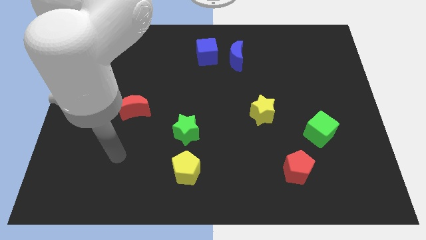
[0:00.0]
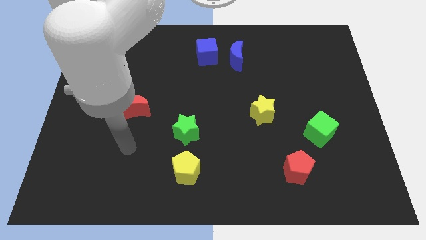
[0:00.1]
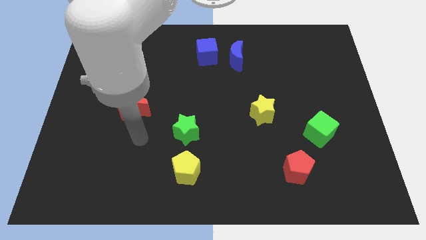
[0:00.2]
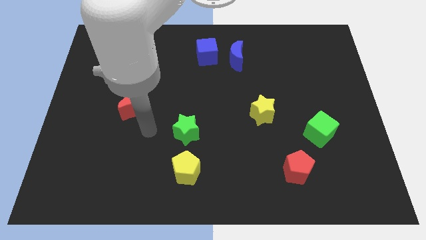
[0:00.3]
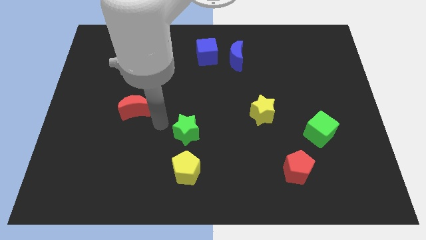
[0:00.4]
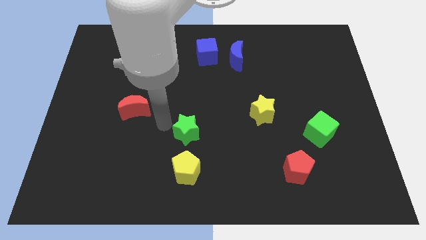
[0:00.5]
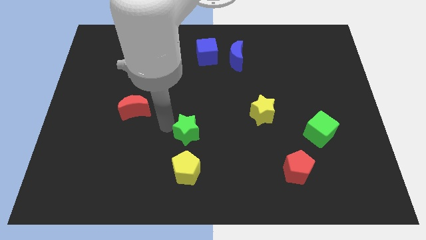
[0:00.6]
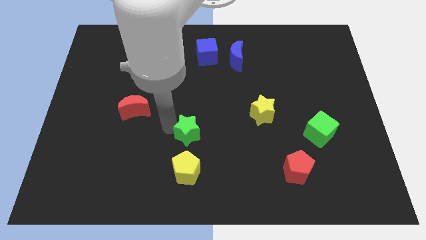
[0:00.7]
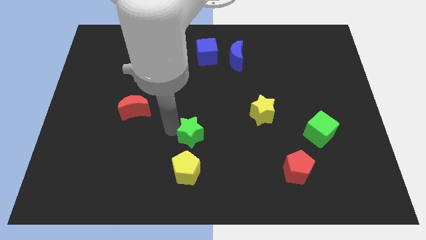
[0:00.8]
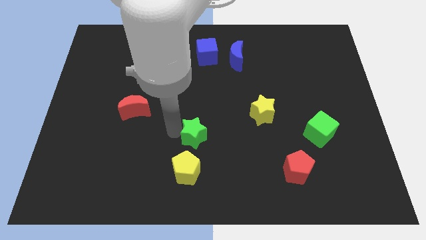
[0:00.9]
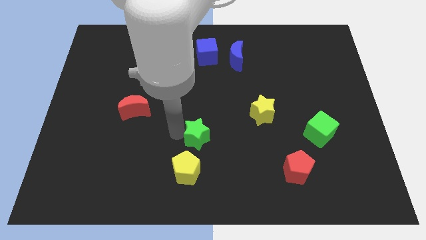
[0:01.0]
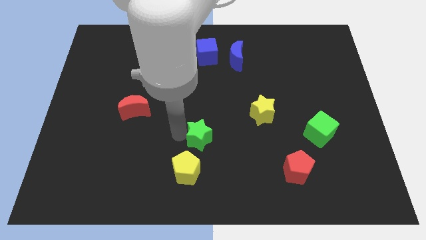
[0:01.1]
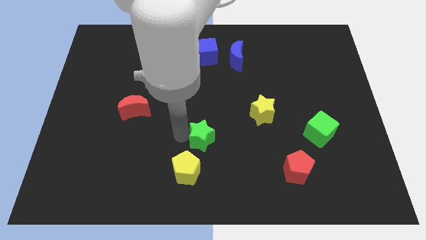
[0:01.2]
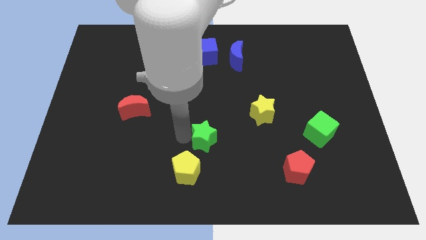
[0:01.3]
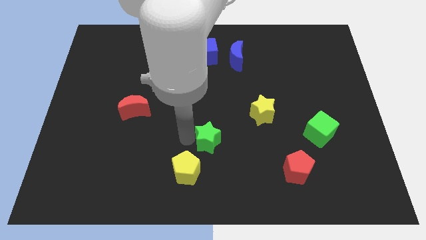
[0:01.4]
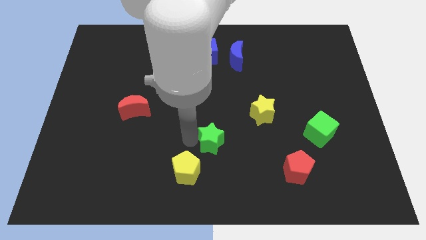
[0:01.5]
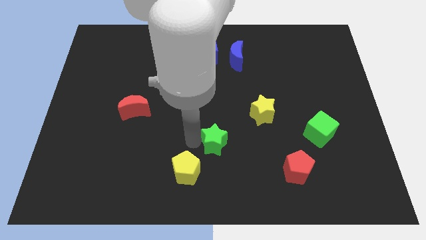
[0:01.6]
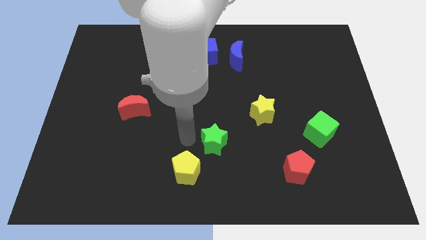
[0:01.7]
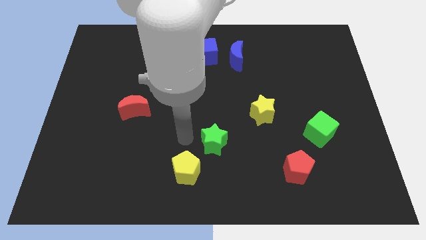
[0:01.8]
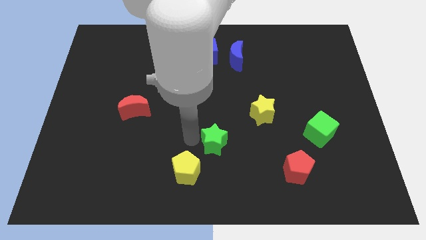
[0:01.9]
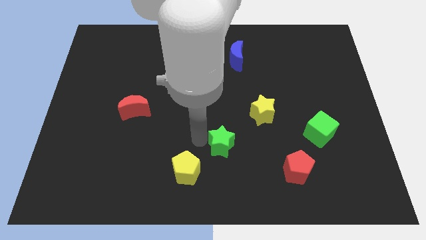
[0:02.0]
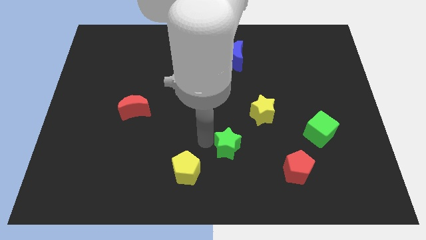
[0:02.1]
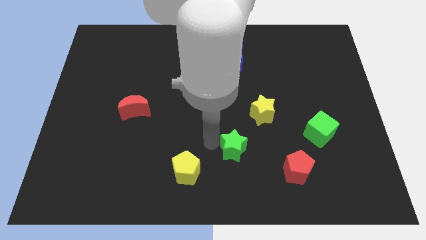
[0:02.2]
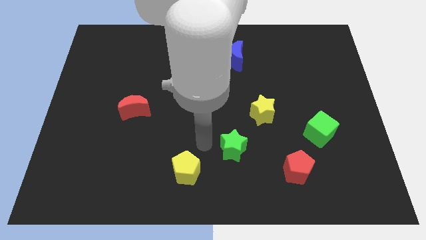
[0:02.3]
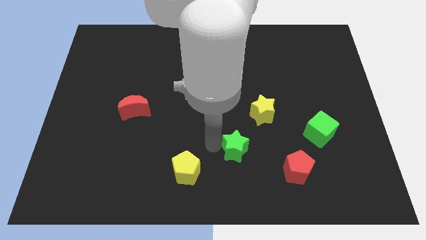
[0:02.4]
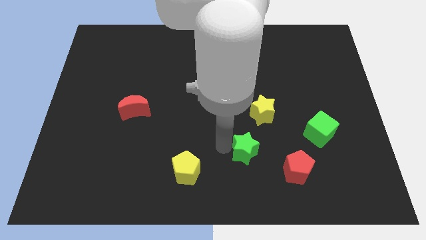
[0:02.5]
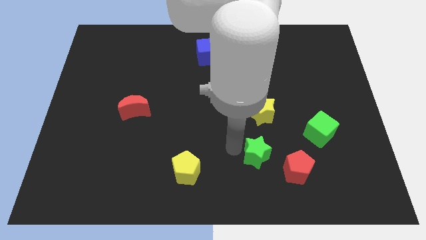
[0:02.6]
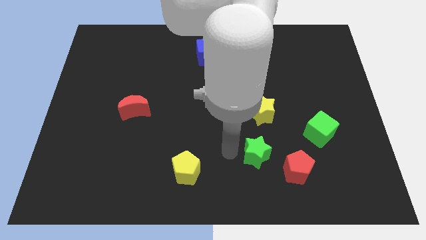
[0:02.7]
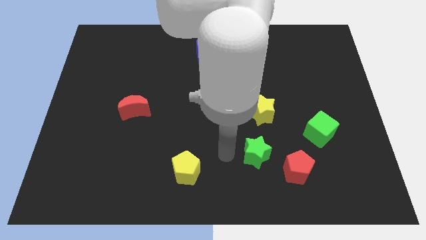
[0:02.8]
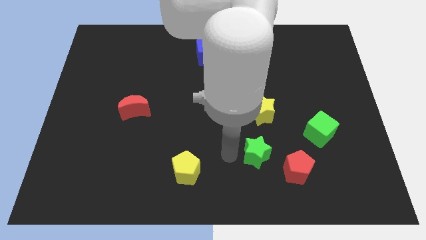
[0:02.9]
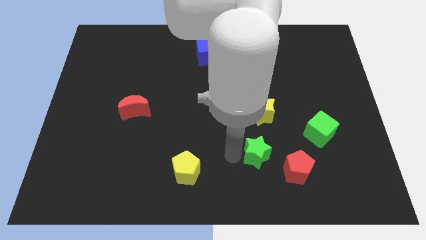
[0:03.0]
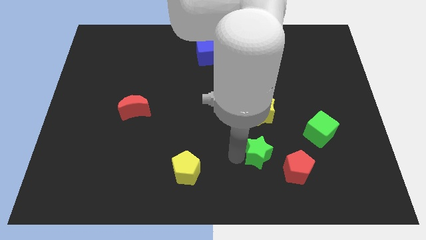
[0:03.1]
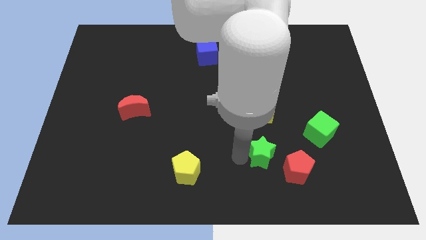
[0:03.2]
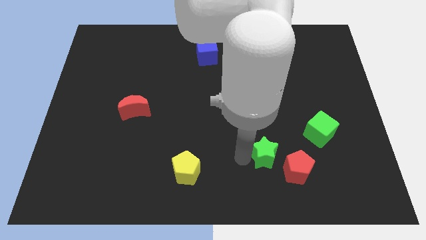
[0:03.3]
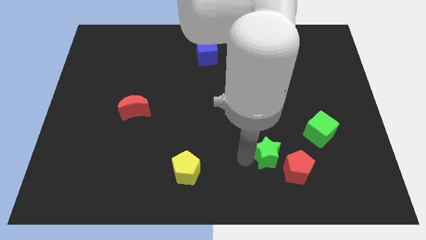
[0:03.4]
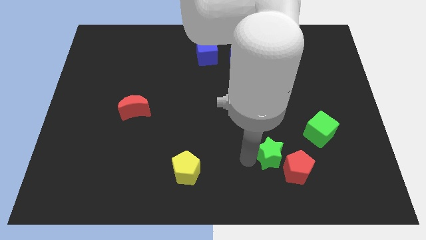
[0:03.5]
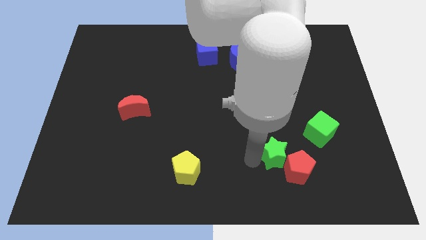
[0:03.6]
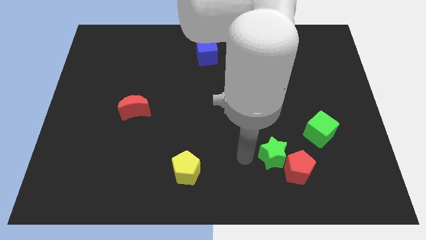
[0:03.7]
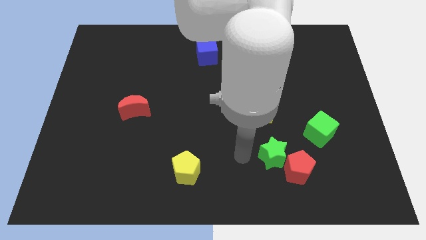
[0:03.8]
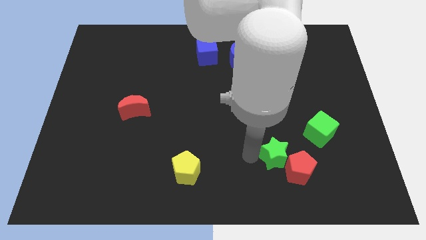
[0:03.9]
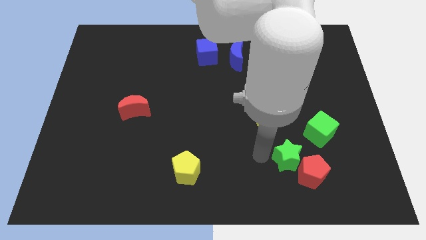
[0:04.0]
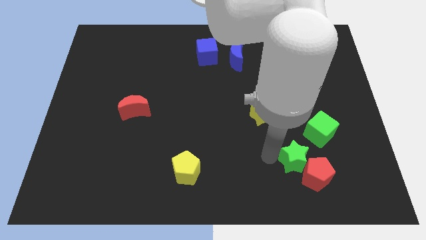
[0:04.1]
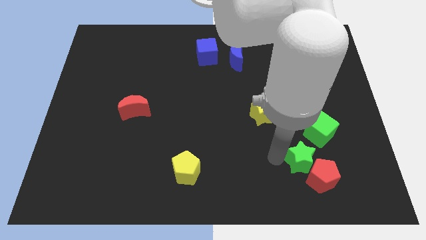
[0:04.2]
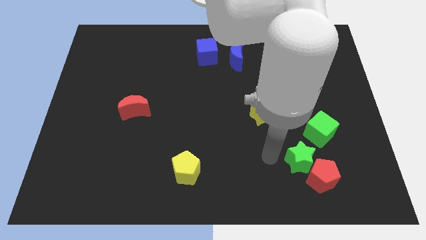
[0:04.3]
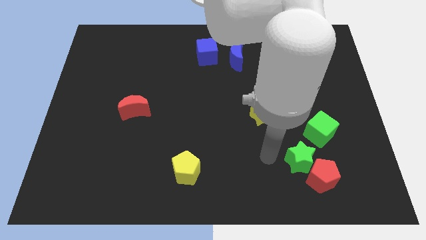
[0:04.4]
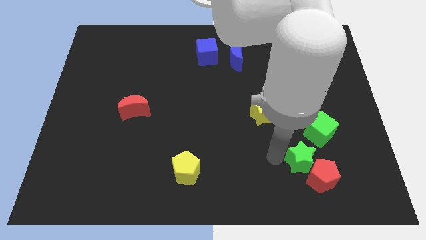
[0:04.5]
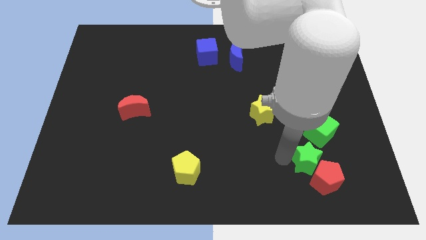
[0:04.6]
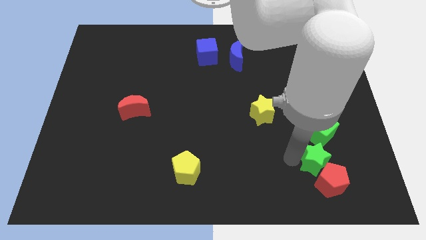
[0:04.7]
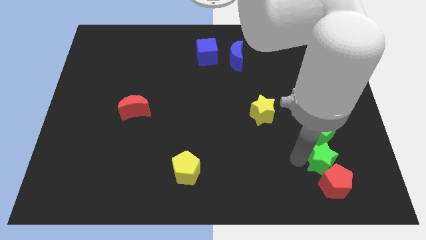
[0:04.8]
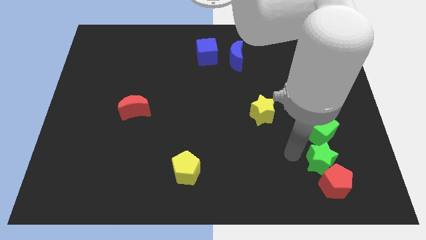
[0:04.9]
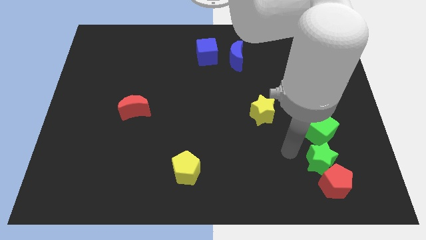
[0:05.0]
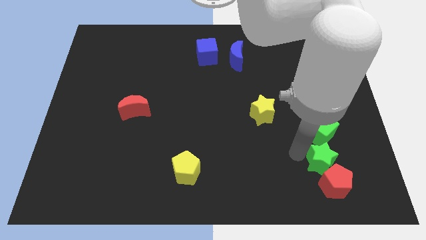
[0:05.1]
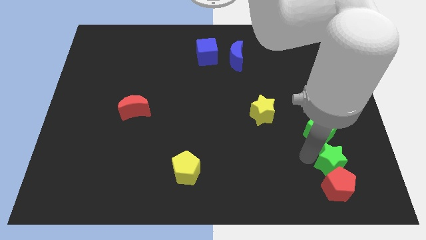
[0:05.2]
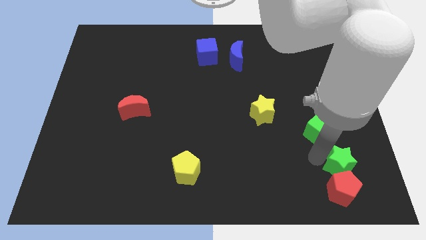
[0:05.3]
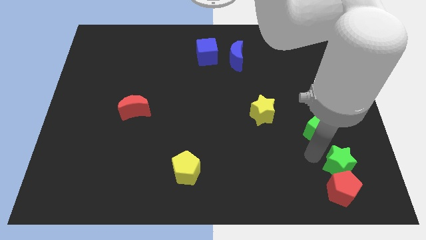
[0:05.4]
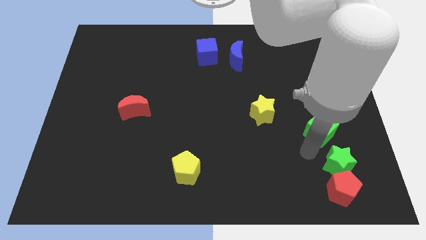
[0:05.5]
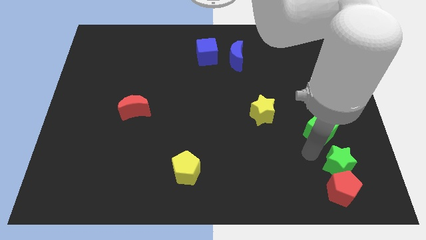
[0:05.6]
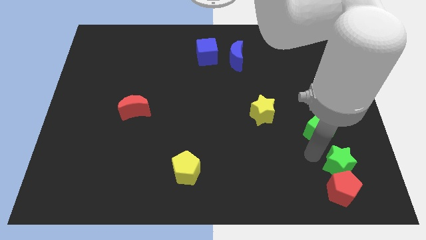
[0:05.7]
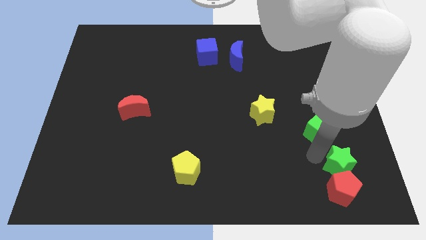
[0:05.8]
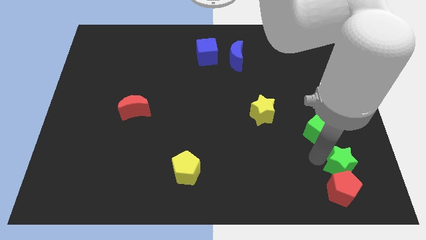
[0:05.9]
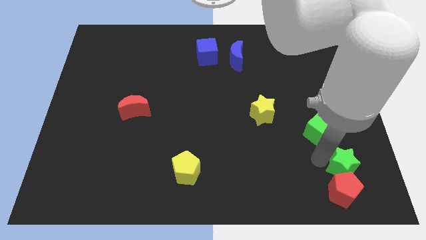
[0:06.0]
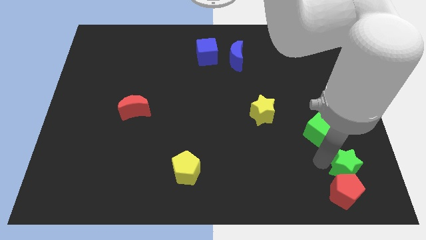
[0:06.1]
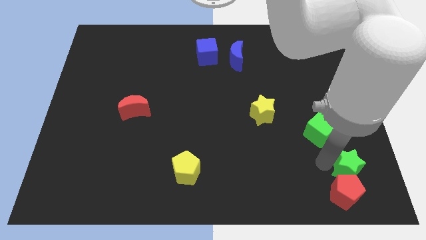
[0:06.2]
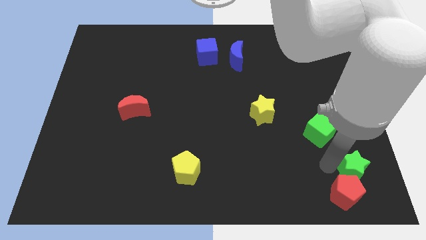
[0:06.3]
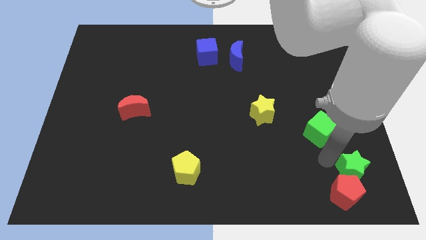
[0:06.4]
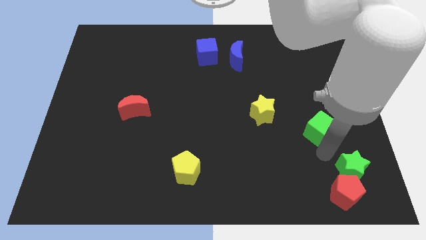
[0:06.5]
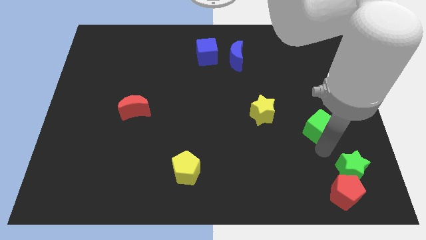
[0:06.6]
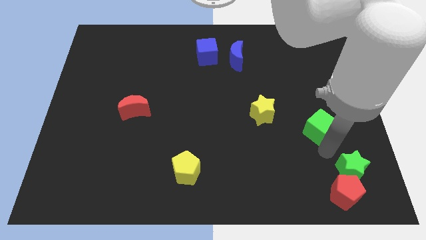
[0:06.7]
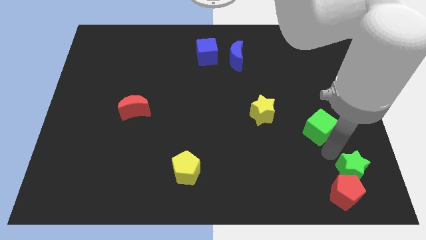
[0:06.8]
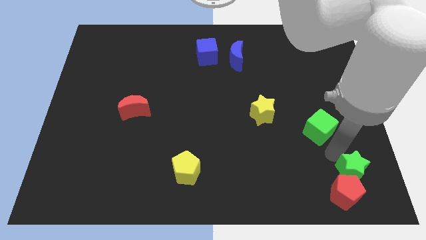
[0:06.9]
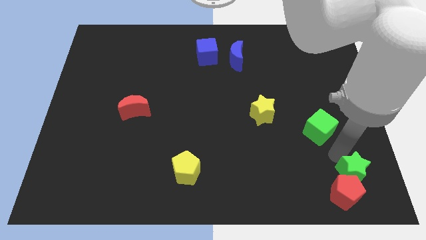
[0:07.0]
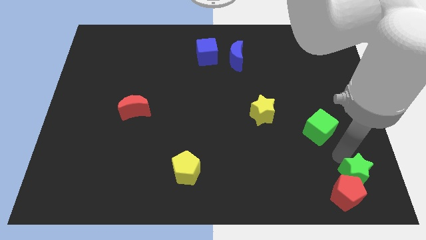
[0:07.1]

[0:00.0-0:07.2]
push the green star to the lower right corner
